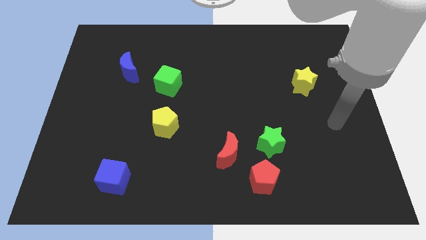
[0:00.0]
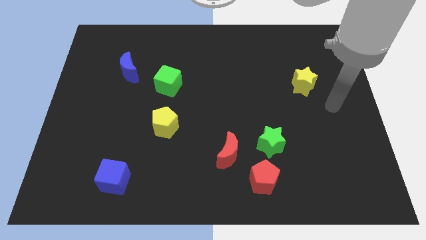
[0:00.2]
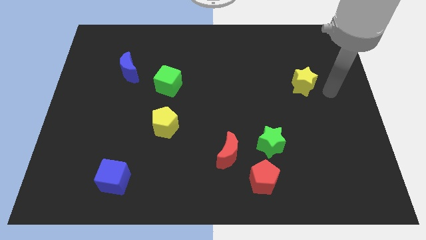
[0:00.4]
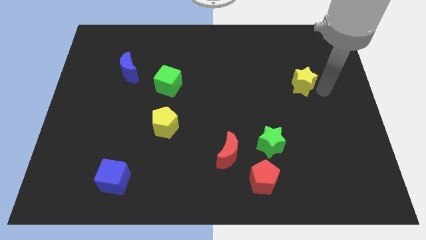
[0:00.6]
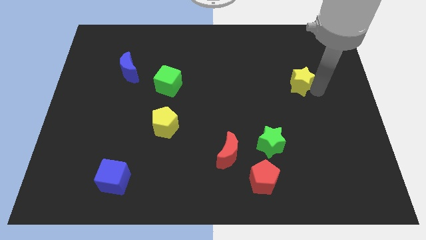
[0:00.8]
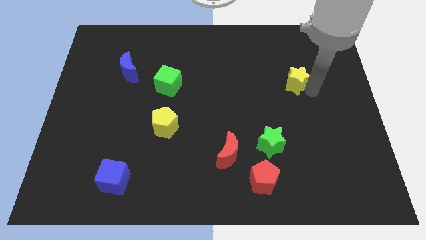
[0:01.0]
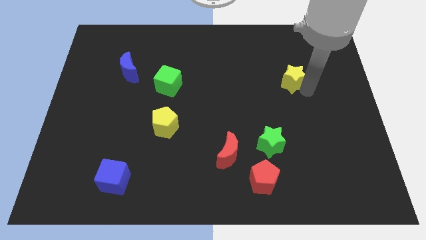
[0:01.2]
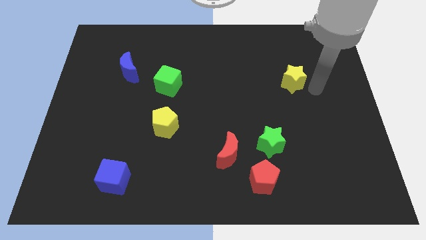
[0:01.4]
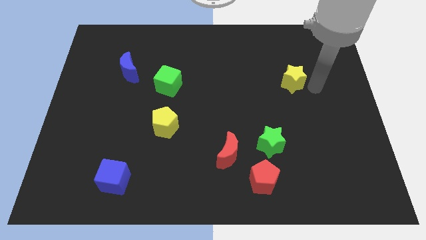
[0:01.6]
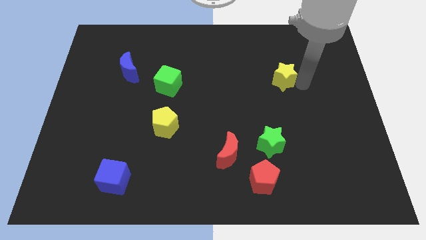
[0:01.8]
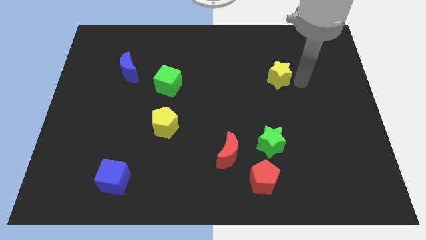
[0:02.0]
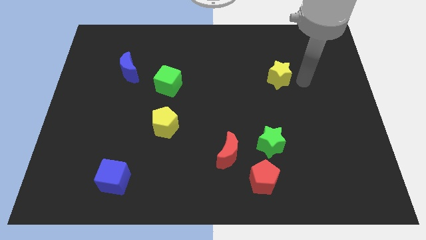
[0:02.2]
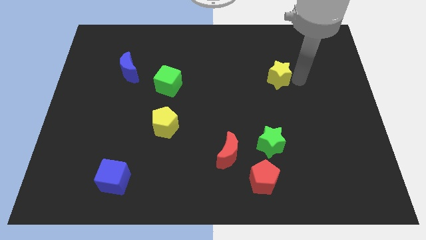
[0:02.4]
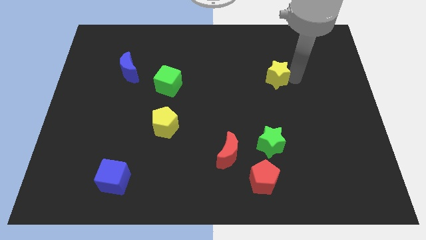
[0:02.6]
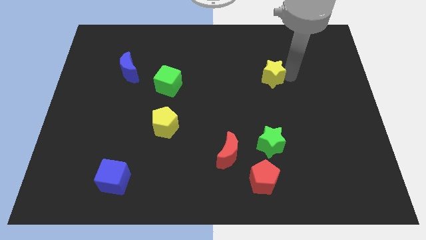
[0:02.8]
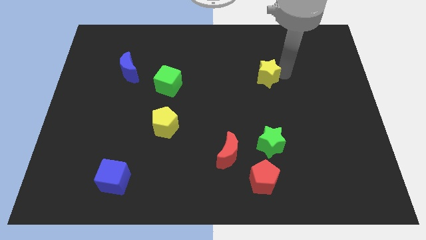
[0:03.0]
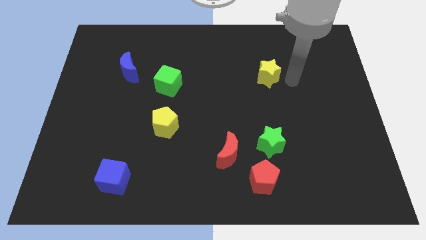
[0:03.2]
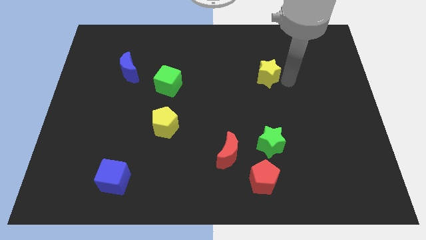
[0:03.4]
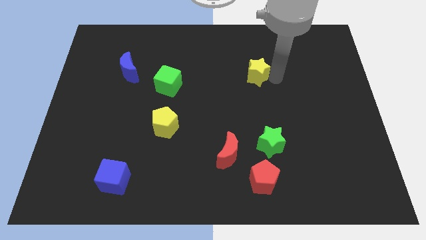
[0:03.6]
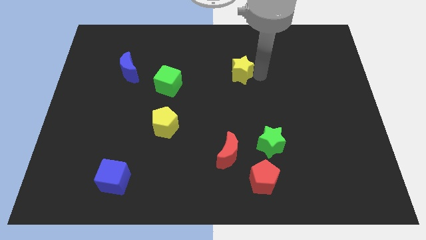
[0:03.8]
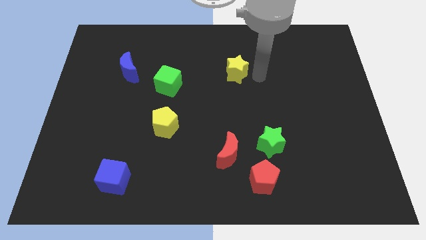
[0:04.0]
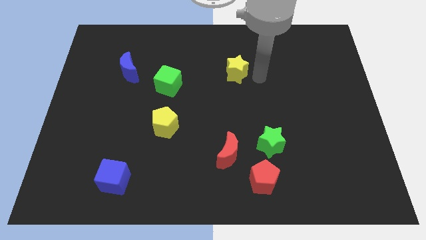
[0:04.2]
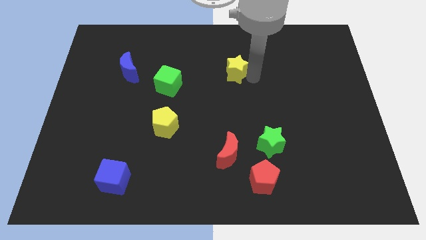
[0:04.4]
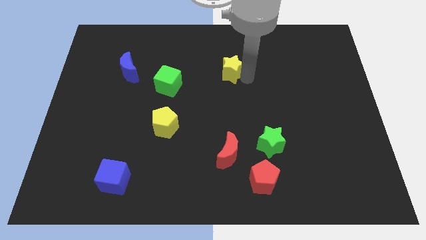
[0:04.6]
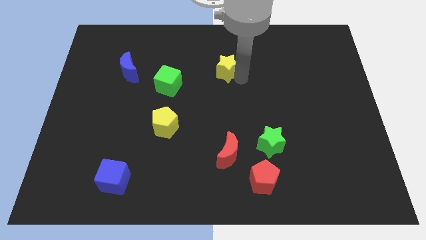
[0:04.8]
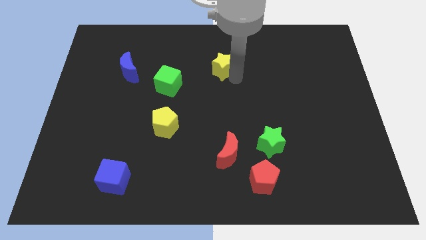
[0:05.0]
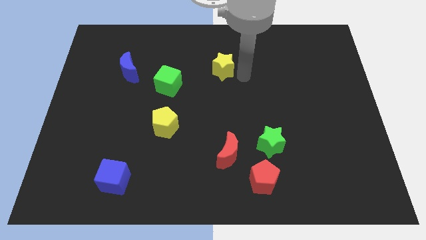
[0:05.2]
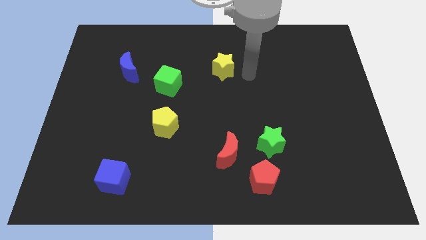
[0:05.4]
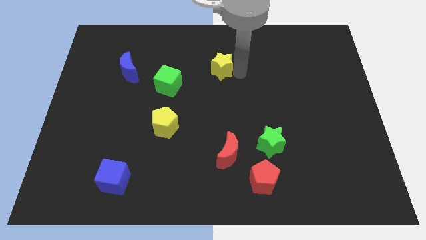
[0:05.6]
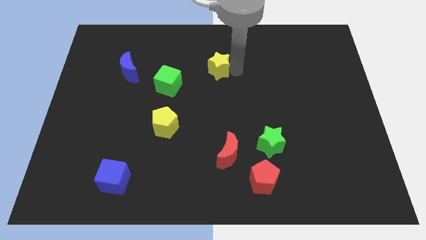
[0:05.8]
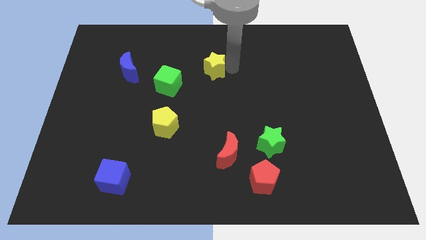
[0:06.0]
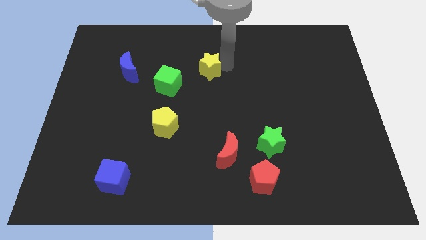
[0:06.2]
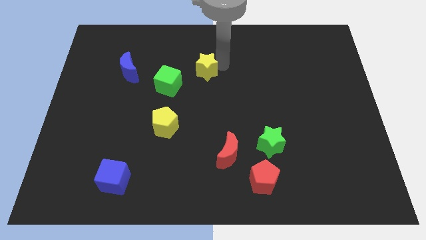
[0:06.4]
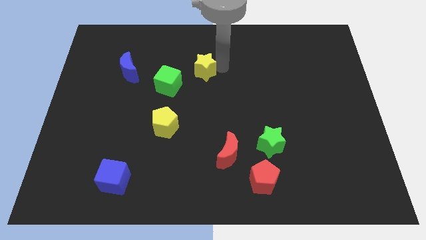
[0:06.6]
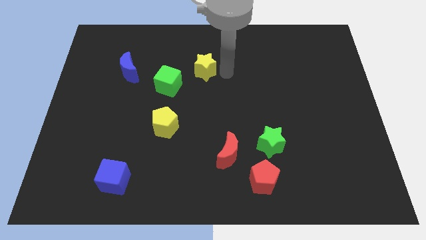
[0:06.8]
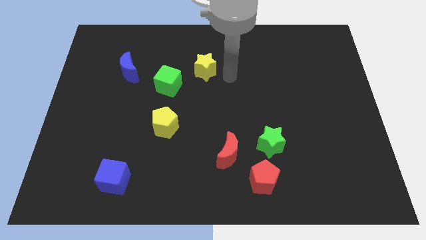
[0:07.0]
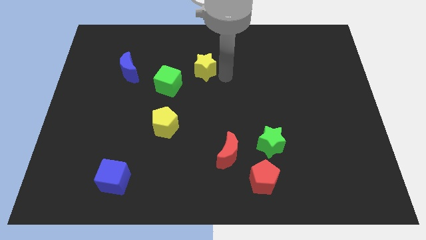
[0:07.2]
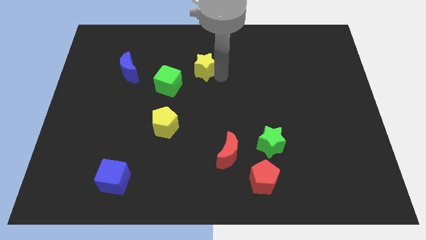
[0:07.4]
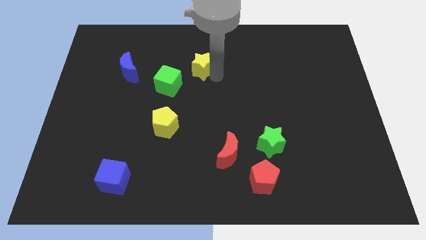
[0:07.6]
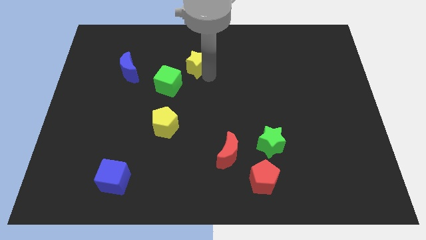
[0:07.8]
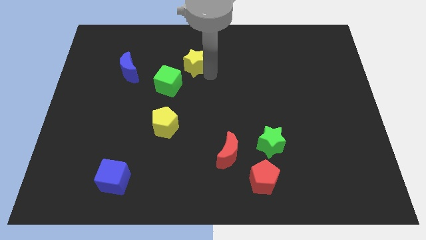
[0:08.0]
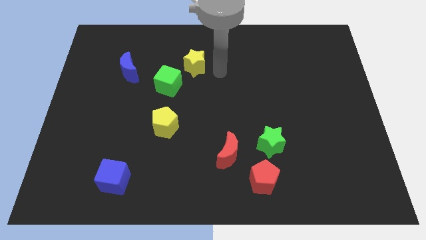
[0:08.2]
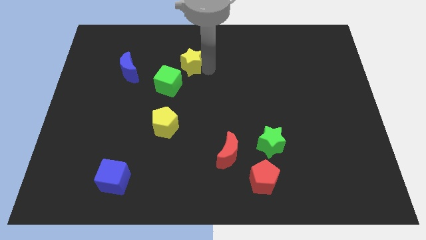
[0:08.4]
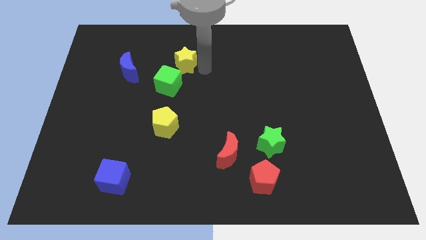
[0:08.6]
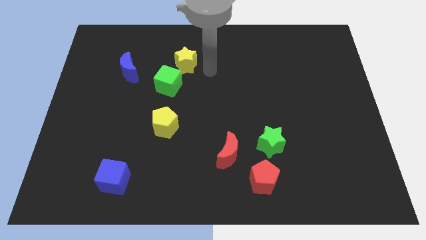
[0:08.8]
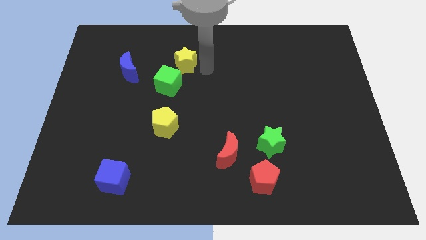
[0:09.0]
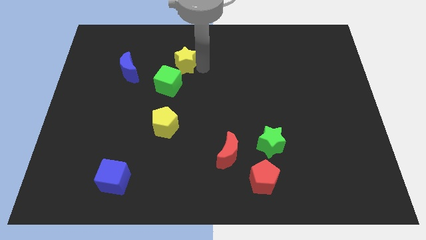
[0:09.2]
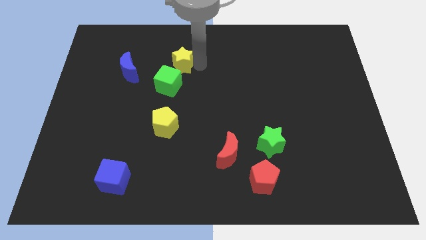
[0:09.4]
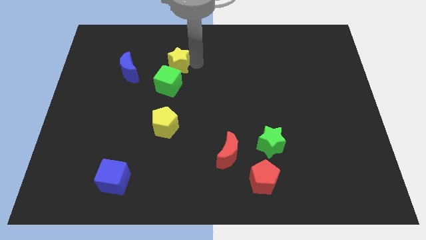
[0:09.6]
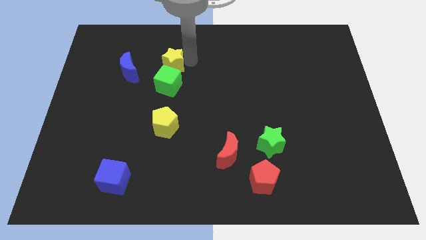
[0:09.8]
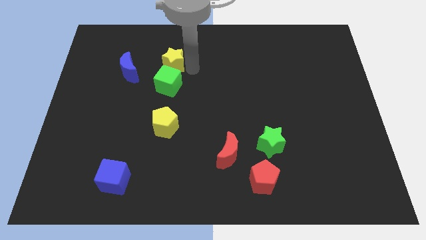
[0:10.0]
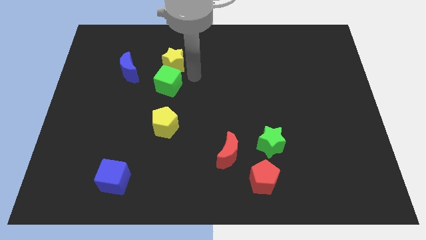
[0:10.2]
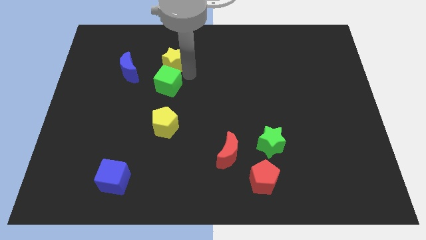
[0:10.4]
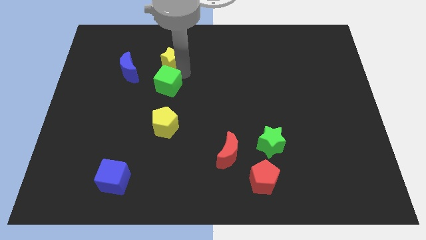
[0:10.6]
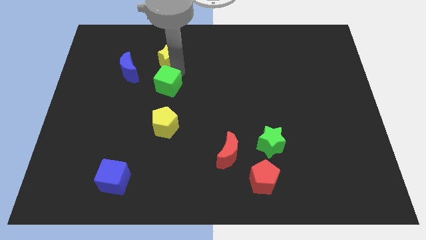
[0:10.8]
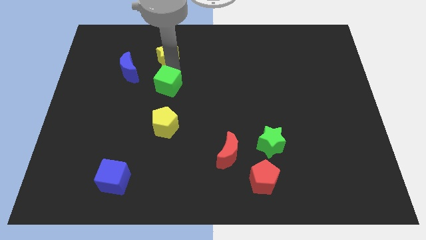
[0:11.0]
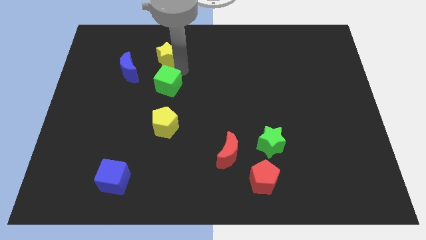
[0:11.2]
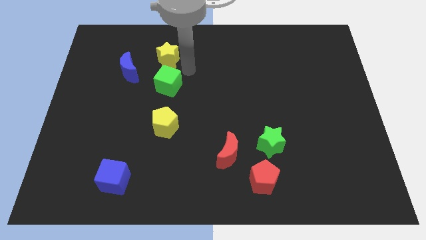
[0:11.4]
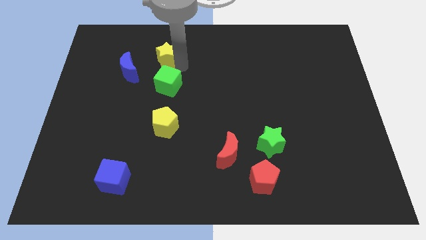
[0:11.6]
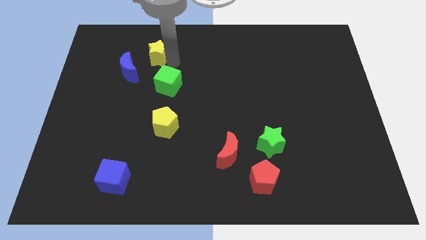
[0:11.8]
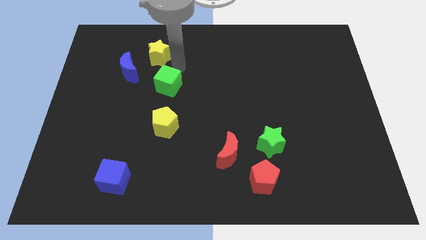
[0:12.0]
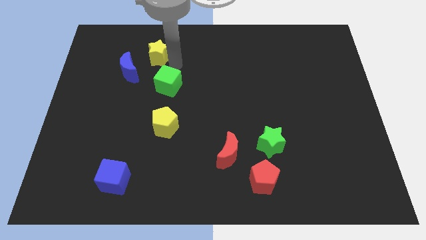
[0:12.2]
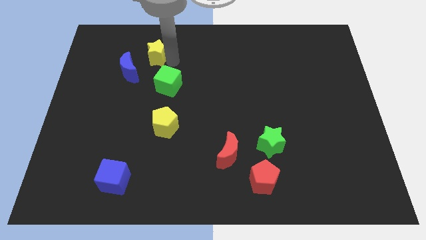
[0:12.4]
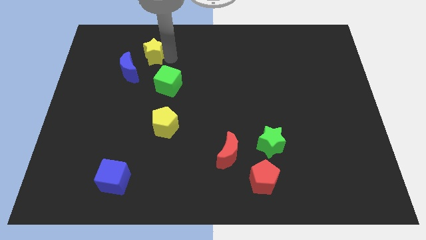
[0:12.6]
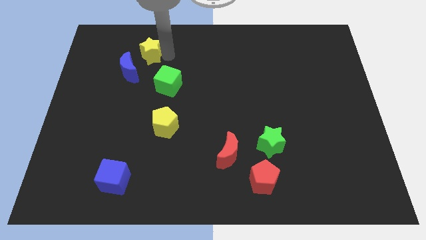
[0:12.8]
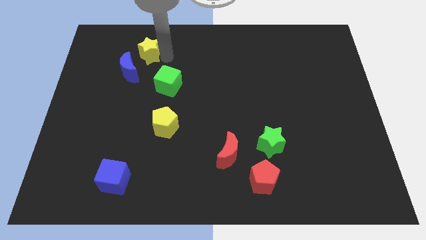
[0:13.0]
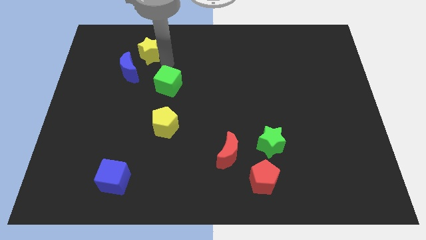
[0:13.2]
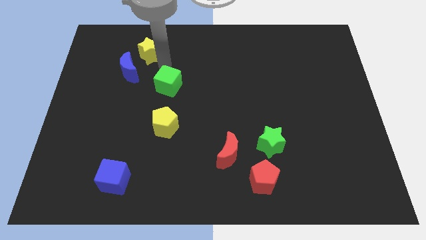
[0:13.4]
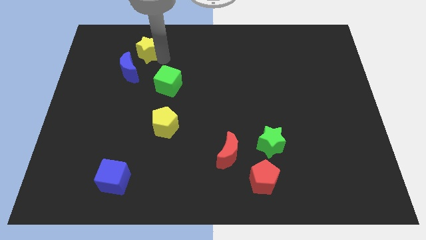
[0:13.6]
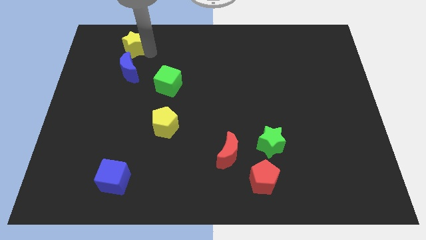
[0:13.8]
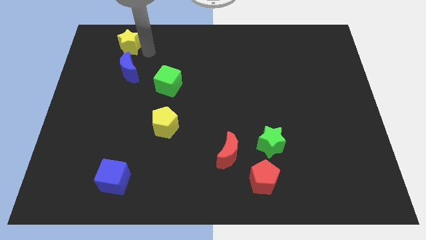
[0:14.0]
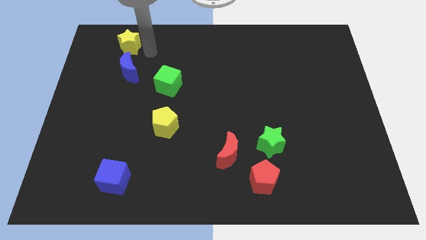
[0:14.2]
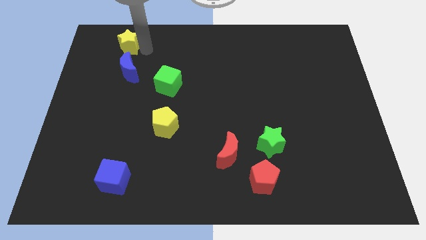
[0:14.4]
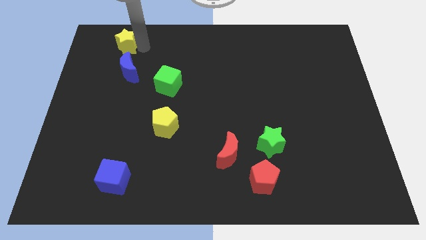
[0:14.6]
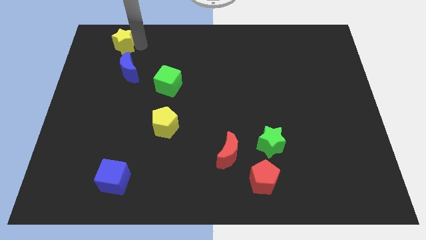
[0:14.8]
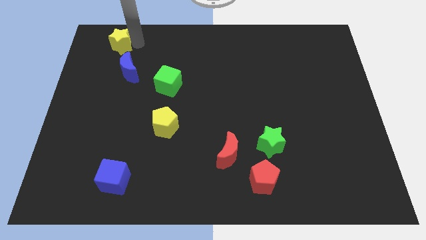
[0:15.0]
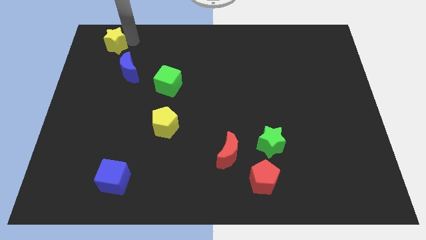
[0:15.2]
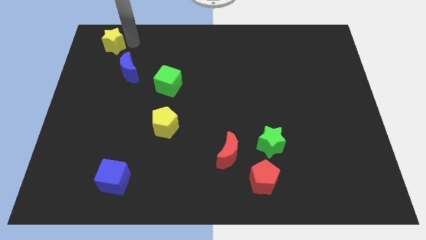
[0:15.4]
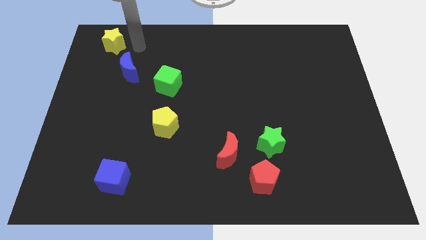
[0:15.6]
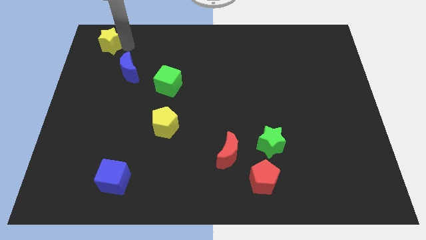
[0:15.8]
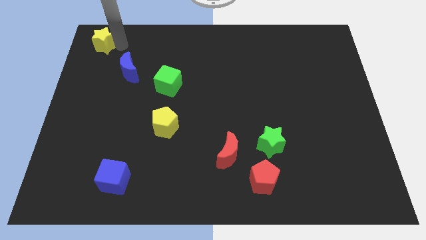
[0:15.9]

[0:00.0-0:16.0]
put the yellow star to the upper left corner
